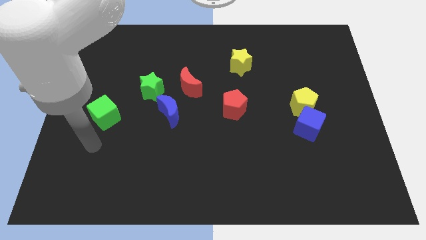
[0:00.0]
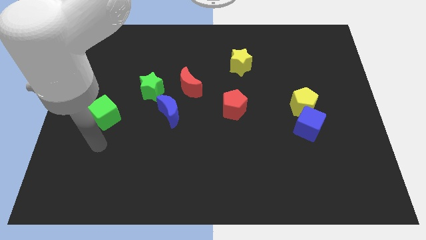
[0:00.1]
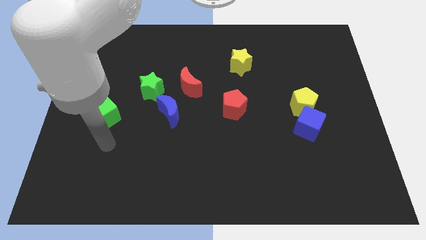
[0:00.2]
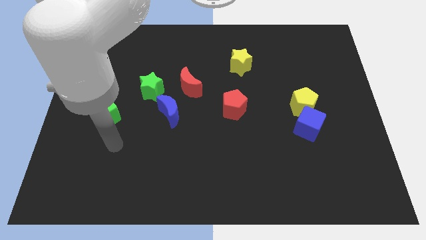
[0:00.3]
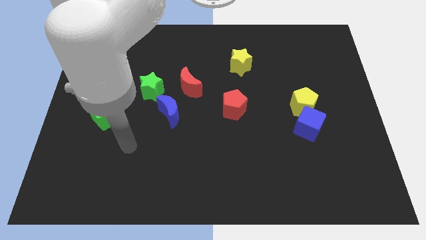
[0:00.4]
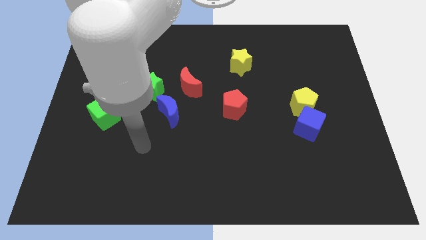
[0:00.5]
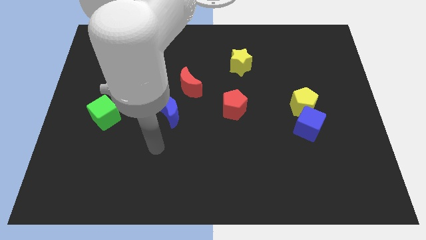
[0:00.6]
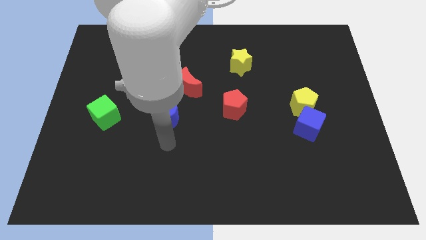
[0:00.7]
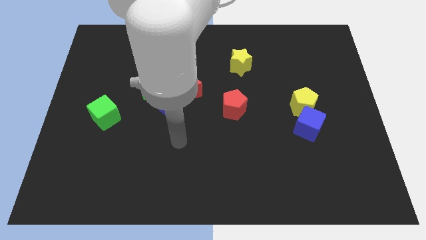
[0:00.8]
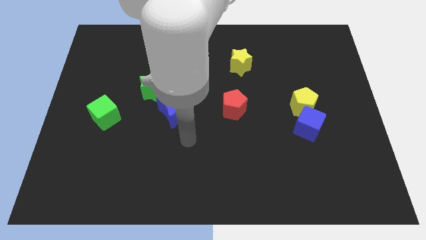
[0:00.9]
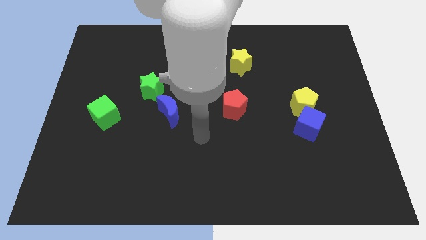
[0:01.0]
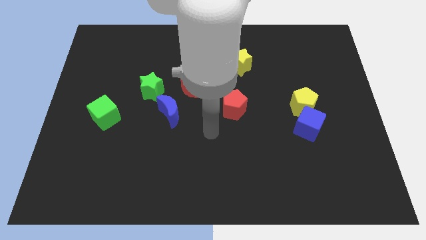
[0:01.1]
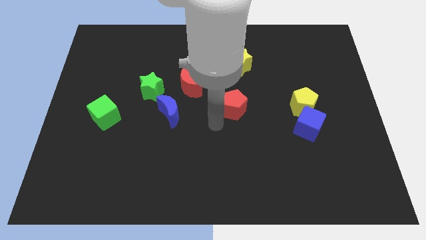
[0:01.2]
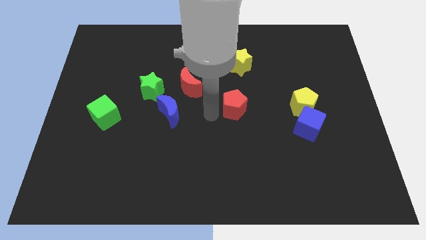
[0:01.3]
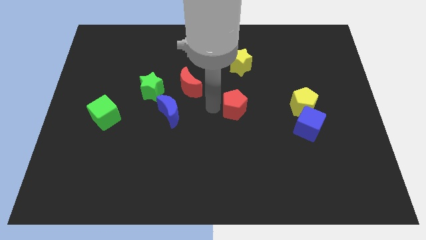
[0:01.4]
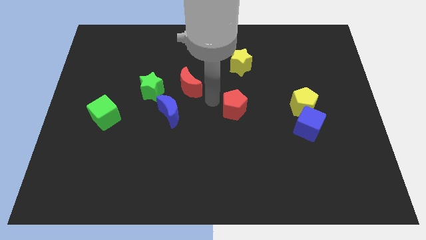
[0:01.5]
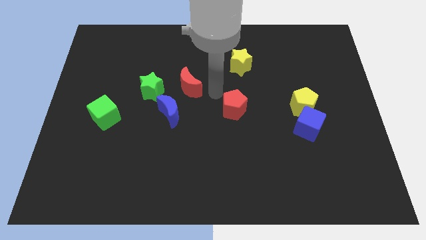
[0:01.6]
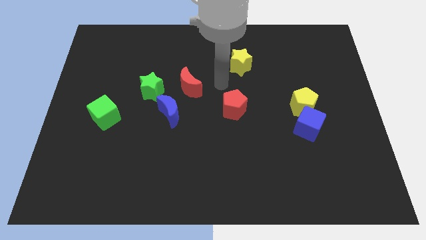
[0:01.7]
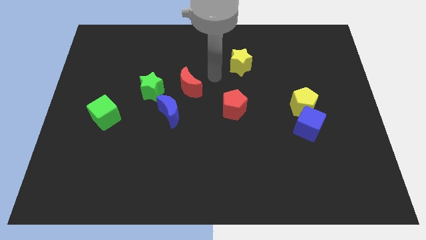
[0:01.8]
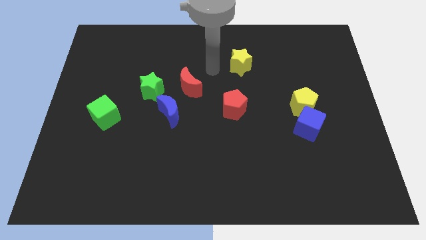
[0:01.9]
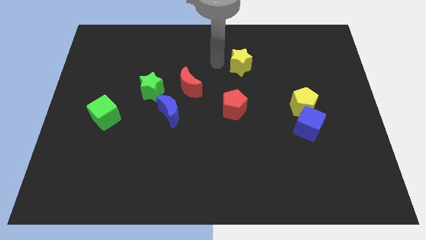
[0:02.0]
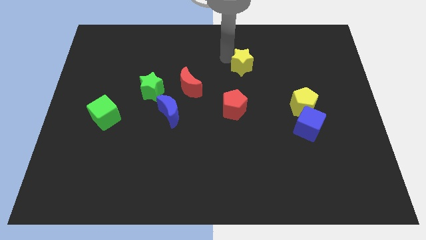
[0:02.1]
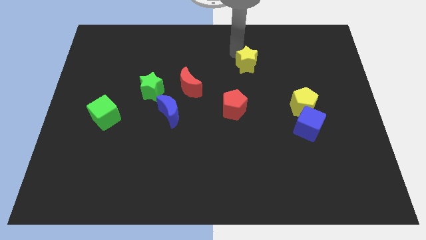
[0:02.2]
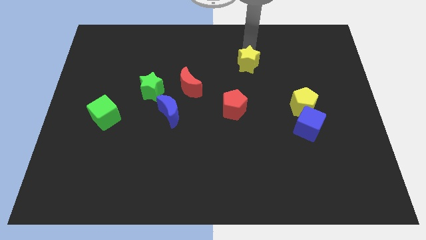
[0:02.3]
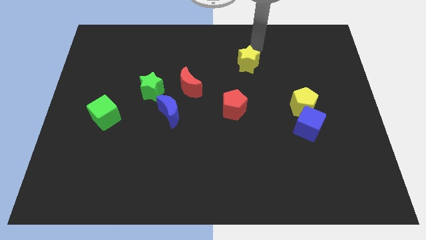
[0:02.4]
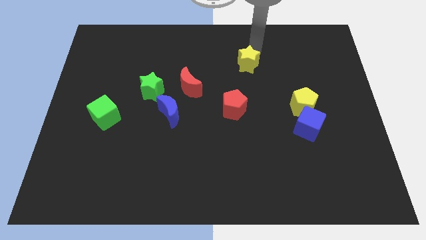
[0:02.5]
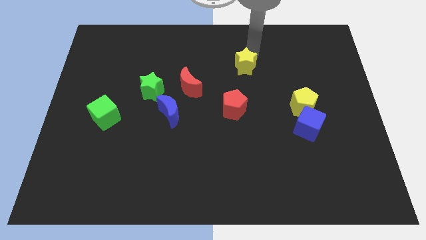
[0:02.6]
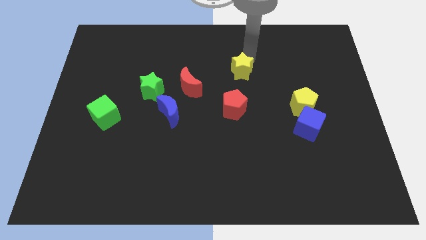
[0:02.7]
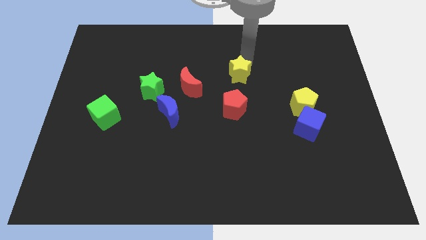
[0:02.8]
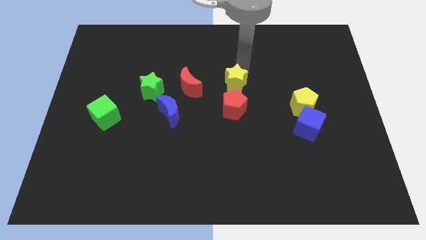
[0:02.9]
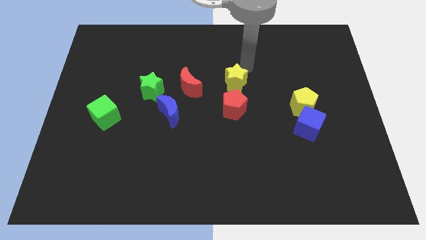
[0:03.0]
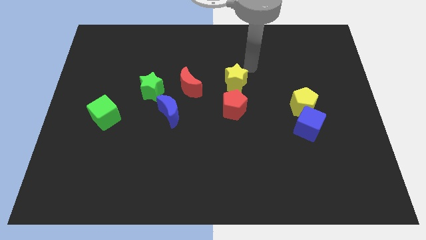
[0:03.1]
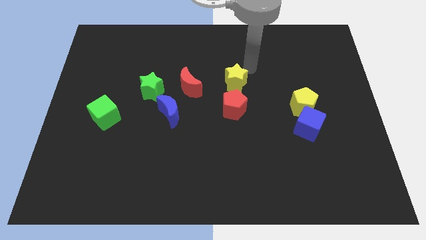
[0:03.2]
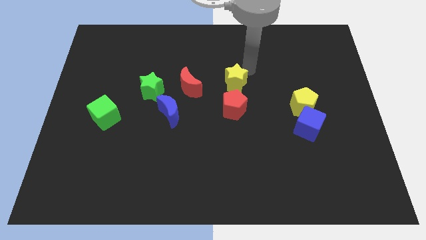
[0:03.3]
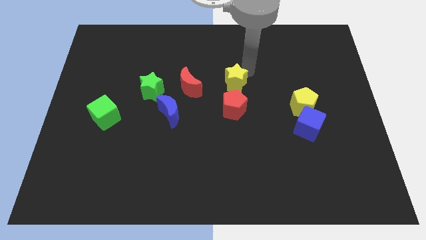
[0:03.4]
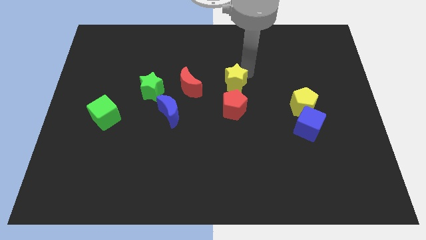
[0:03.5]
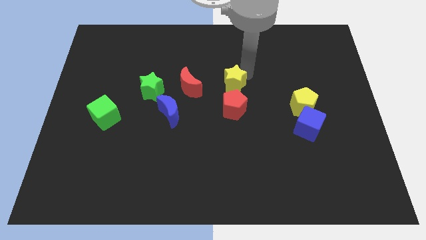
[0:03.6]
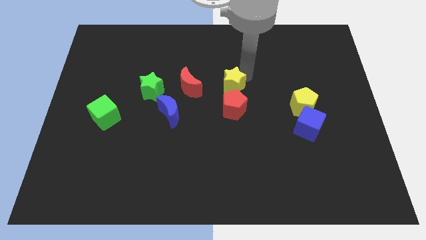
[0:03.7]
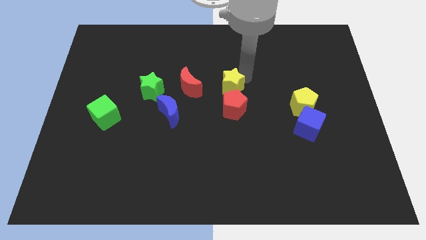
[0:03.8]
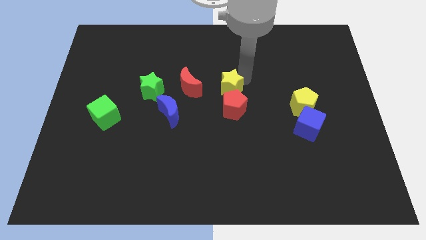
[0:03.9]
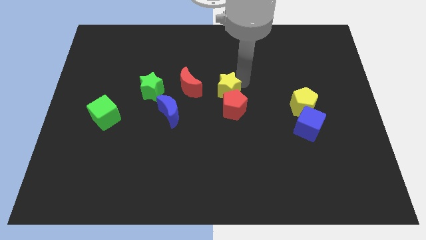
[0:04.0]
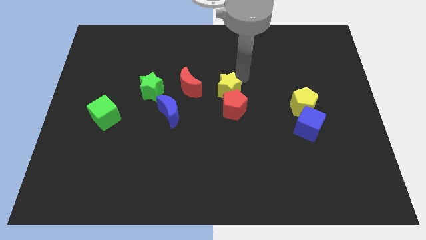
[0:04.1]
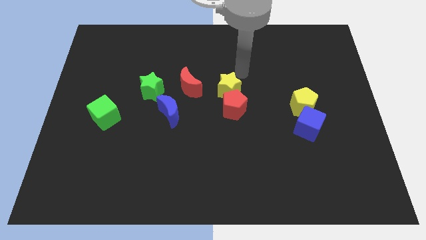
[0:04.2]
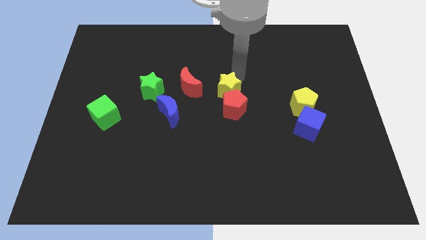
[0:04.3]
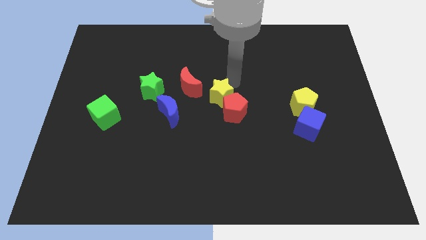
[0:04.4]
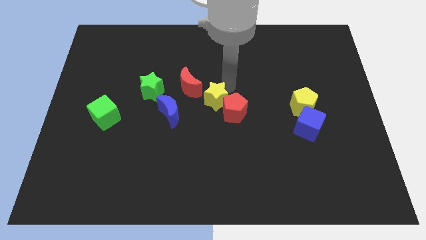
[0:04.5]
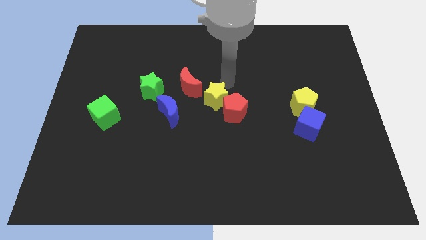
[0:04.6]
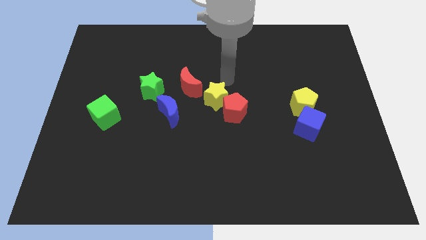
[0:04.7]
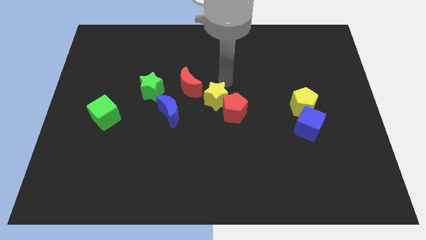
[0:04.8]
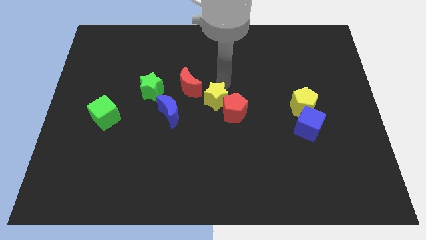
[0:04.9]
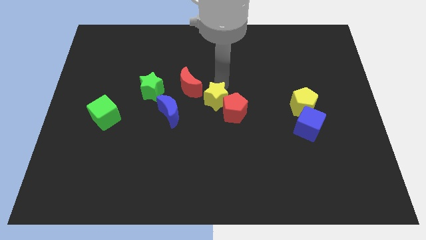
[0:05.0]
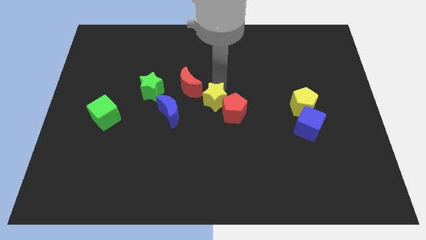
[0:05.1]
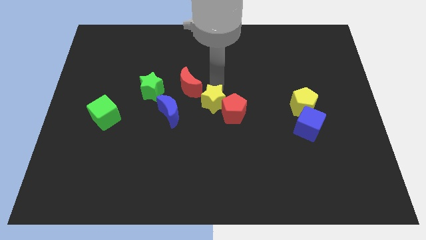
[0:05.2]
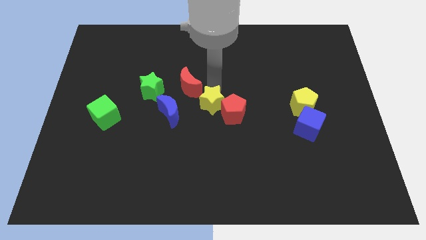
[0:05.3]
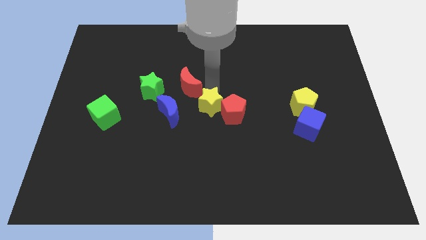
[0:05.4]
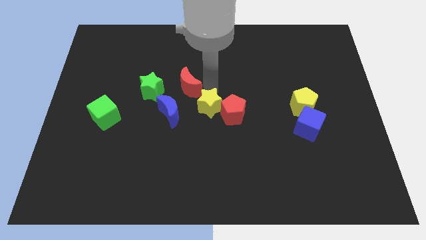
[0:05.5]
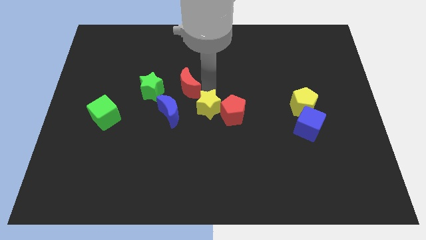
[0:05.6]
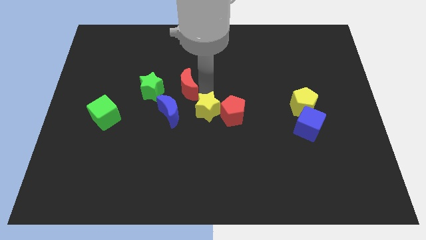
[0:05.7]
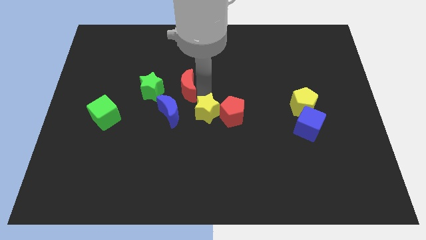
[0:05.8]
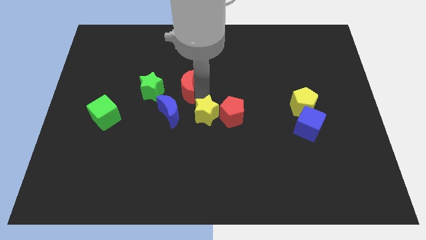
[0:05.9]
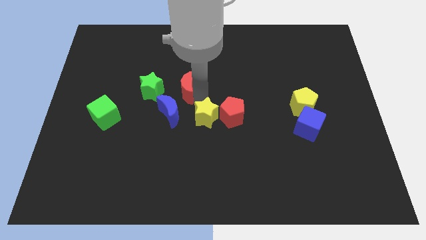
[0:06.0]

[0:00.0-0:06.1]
put the yellow star to the bottom right side of the blue moon
